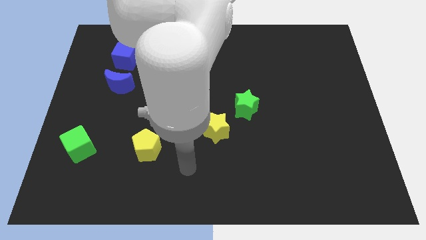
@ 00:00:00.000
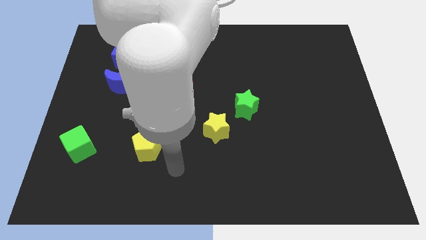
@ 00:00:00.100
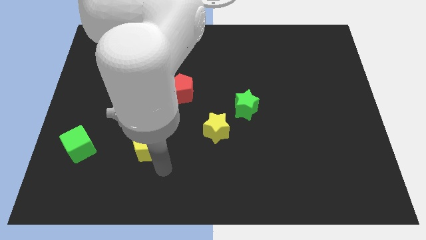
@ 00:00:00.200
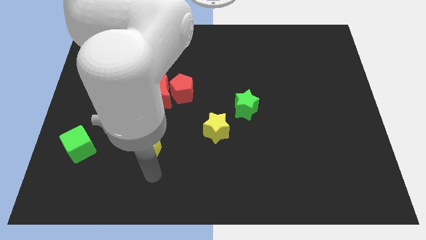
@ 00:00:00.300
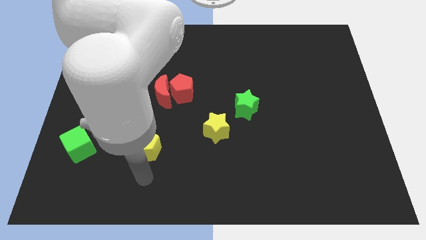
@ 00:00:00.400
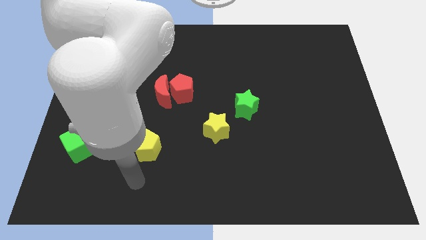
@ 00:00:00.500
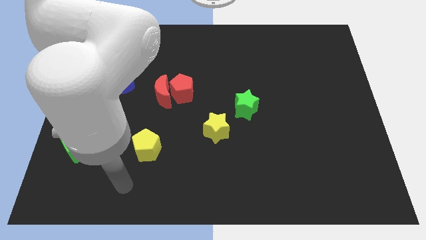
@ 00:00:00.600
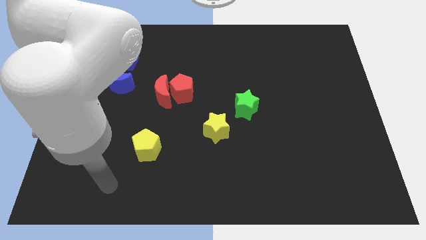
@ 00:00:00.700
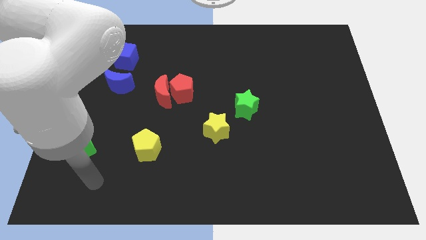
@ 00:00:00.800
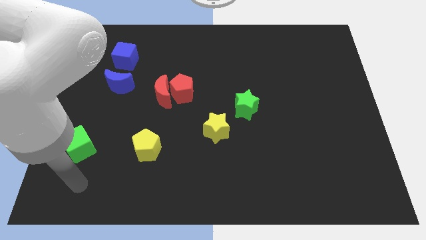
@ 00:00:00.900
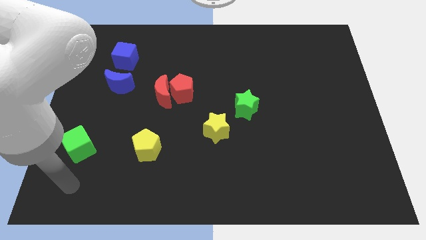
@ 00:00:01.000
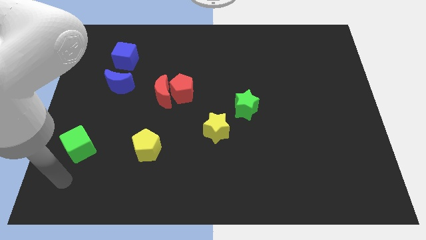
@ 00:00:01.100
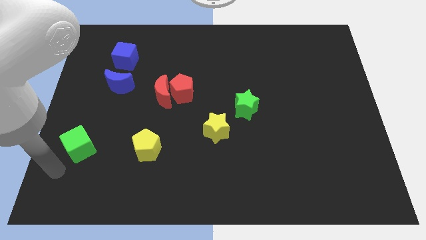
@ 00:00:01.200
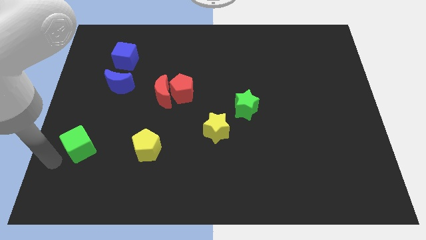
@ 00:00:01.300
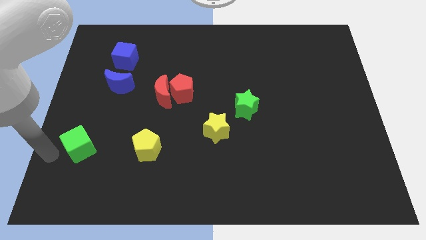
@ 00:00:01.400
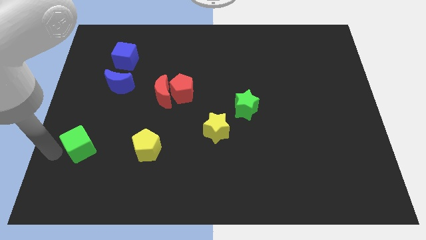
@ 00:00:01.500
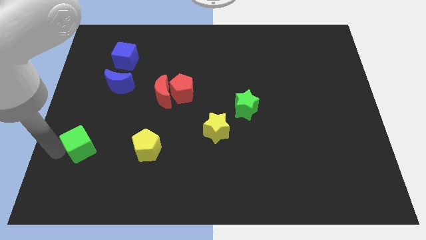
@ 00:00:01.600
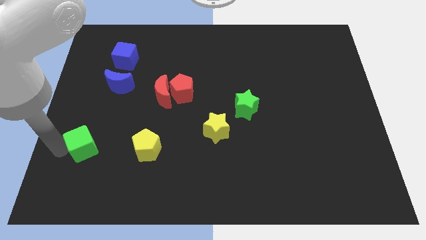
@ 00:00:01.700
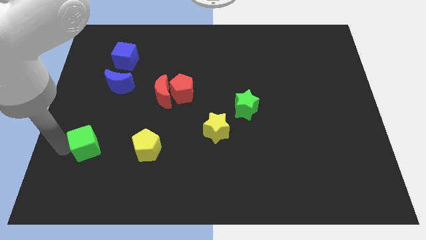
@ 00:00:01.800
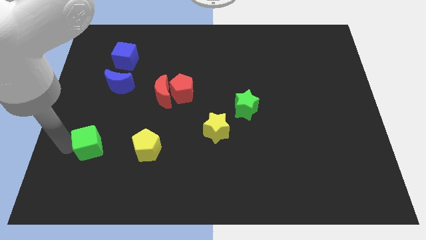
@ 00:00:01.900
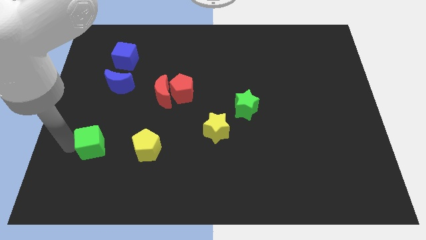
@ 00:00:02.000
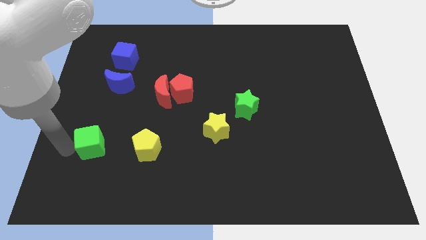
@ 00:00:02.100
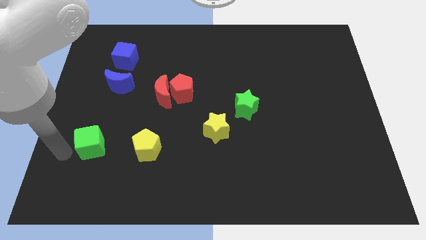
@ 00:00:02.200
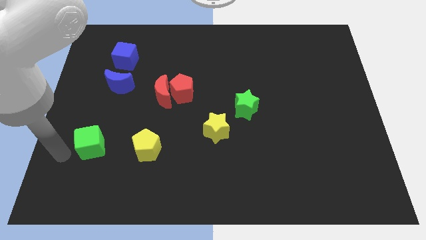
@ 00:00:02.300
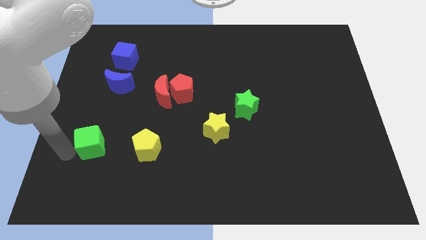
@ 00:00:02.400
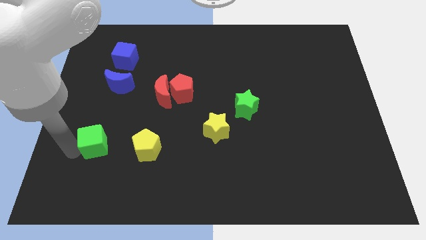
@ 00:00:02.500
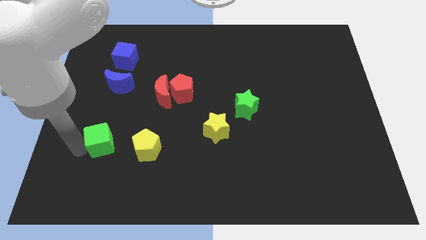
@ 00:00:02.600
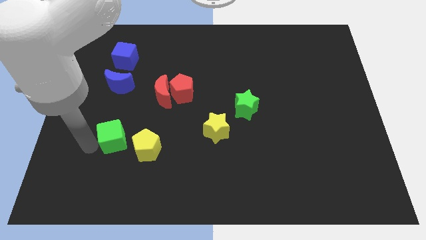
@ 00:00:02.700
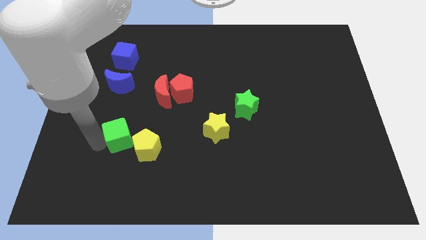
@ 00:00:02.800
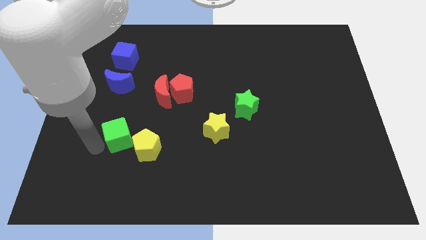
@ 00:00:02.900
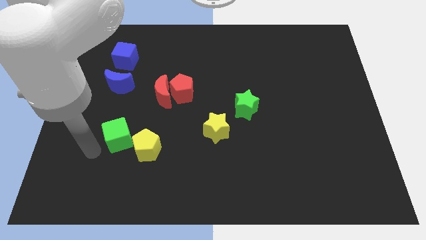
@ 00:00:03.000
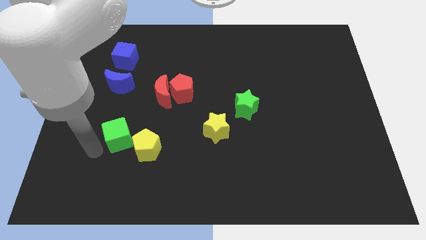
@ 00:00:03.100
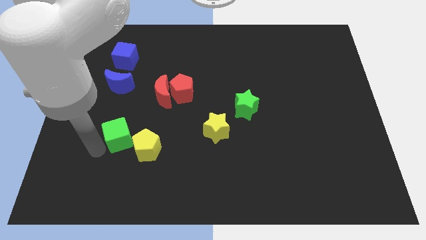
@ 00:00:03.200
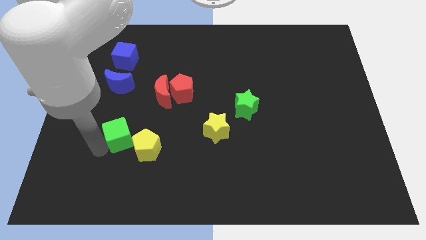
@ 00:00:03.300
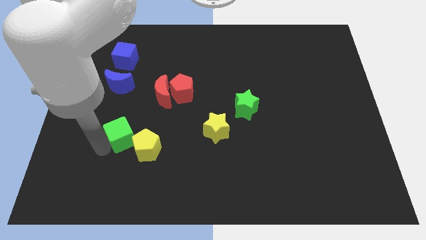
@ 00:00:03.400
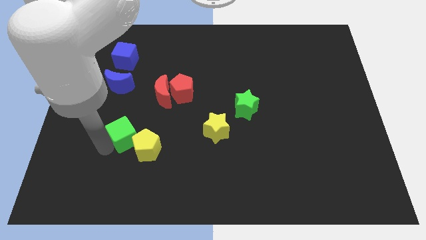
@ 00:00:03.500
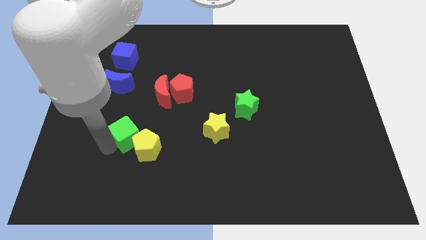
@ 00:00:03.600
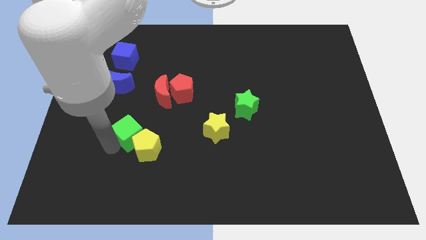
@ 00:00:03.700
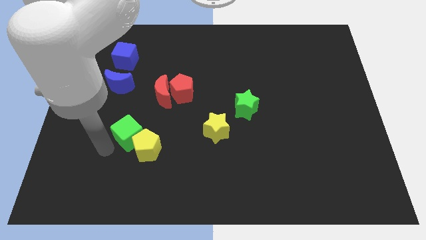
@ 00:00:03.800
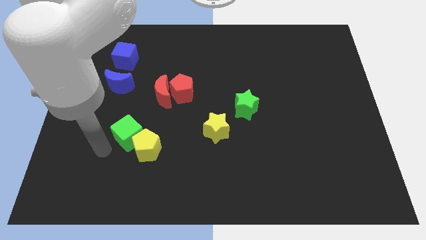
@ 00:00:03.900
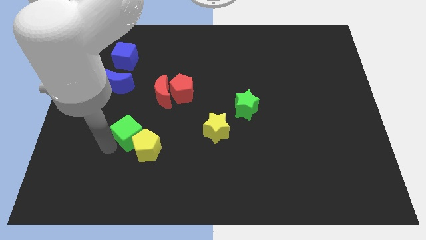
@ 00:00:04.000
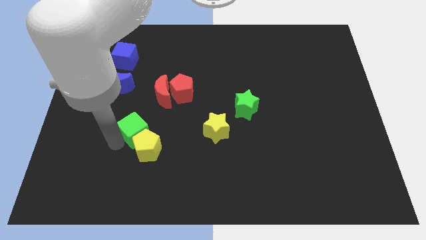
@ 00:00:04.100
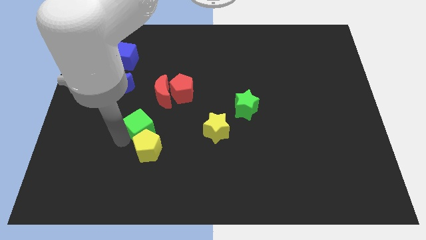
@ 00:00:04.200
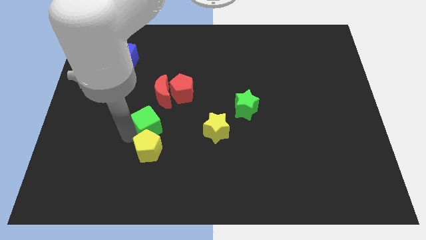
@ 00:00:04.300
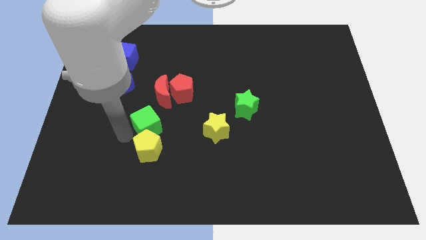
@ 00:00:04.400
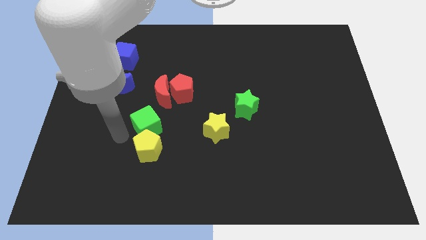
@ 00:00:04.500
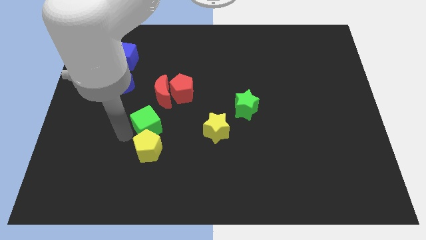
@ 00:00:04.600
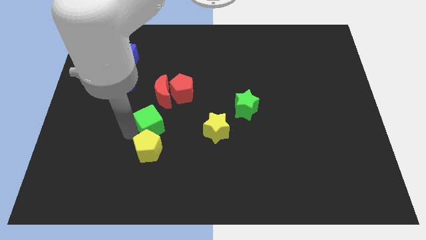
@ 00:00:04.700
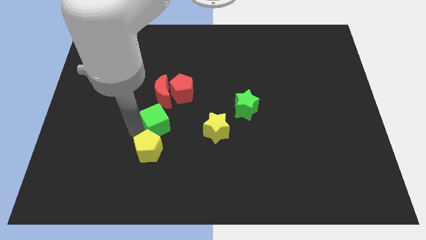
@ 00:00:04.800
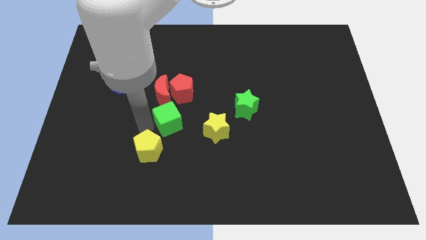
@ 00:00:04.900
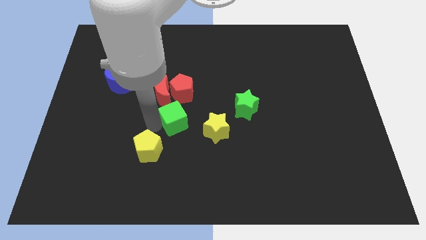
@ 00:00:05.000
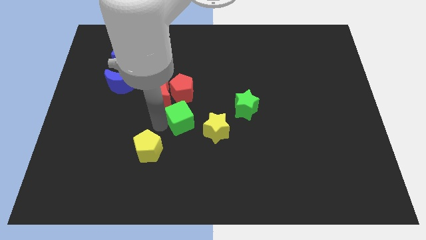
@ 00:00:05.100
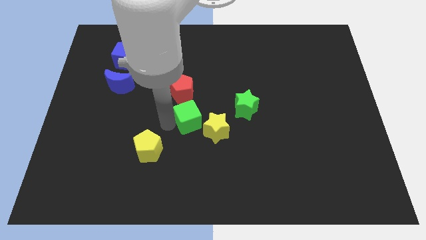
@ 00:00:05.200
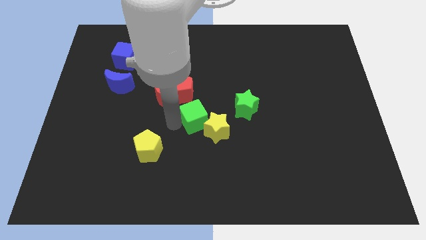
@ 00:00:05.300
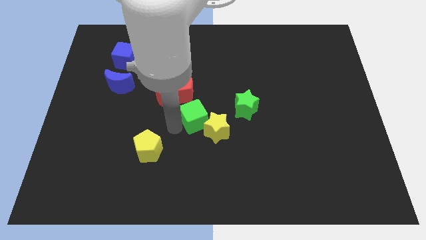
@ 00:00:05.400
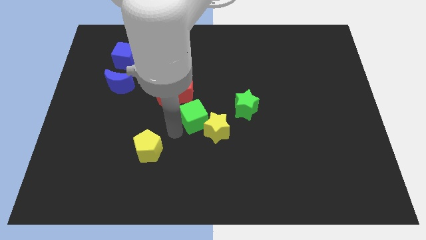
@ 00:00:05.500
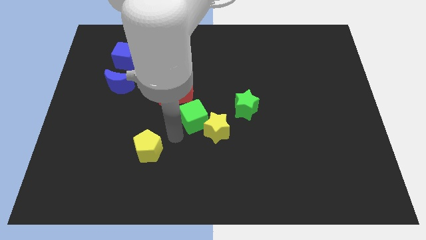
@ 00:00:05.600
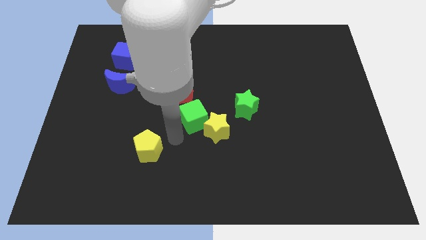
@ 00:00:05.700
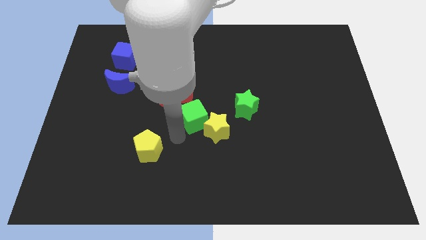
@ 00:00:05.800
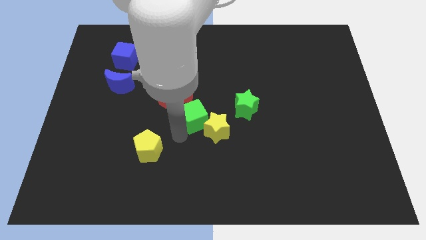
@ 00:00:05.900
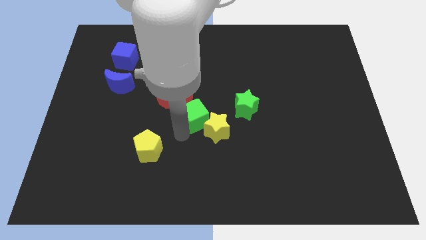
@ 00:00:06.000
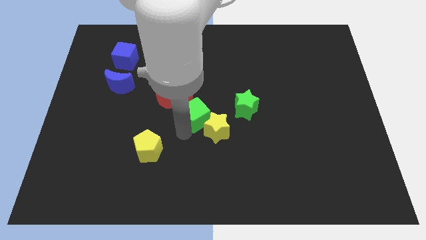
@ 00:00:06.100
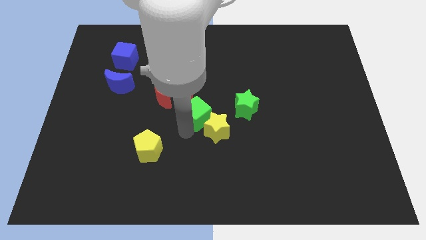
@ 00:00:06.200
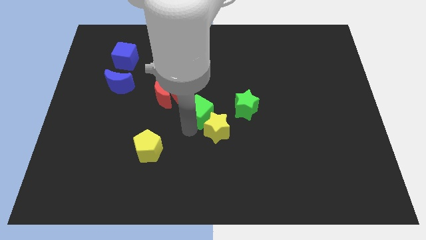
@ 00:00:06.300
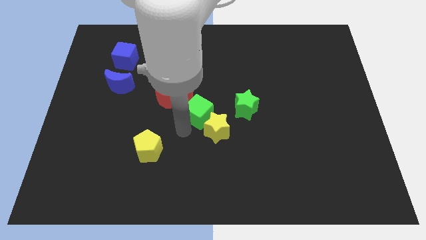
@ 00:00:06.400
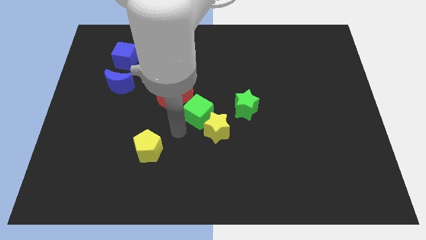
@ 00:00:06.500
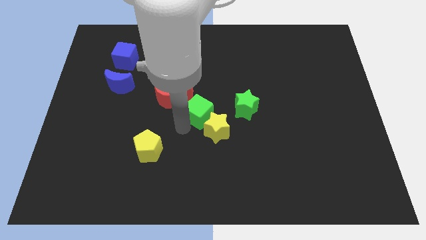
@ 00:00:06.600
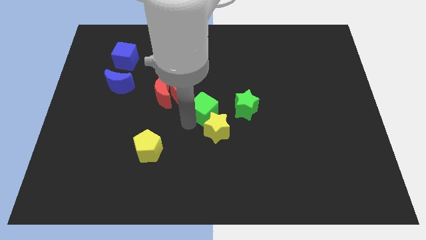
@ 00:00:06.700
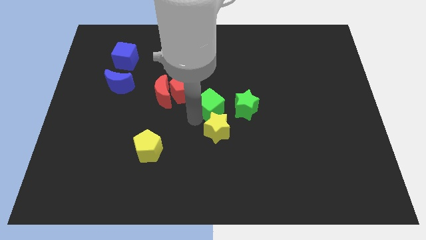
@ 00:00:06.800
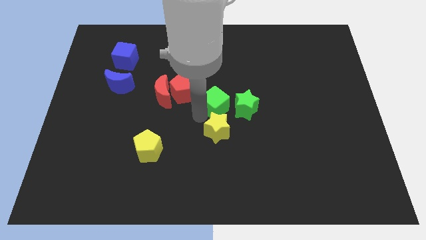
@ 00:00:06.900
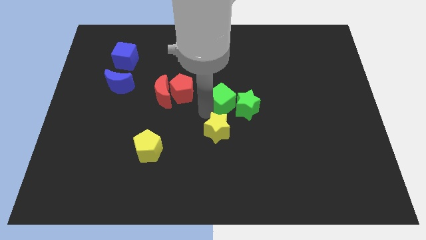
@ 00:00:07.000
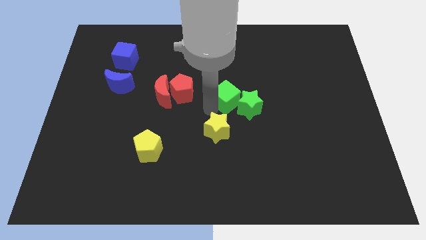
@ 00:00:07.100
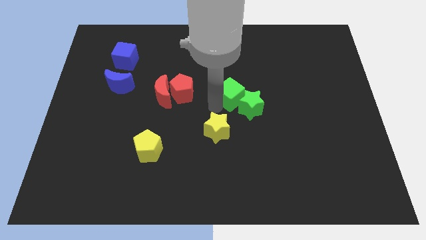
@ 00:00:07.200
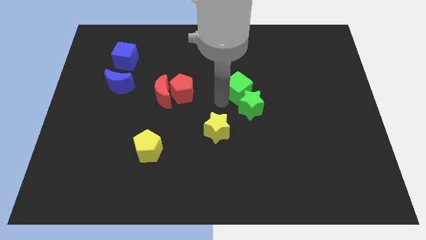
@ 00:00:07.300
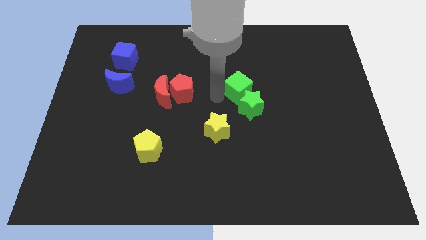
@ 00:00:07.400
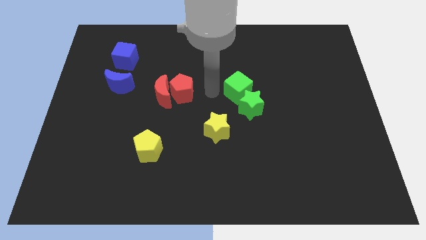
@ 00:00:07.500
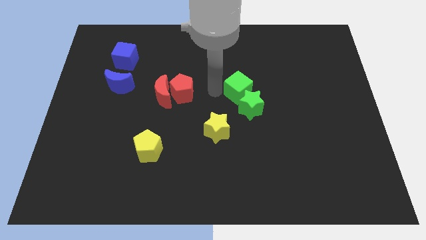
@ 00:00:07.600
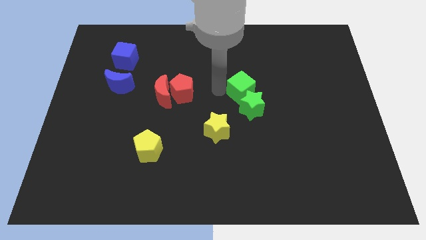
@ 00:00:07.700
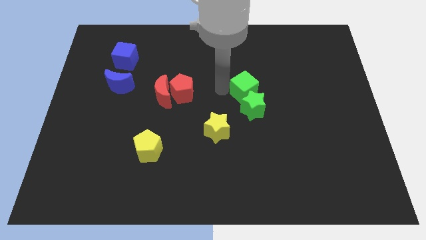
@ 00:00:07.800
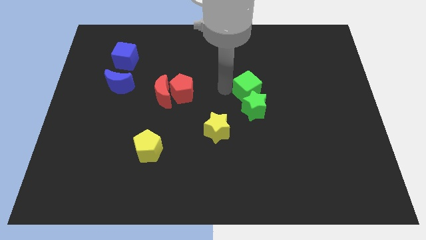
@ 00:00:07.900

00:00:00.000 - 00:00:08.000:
put the green cube to the top right of the green star
